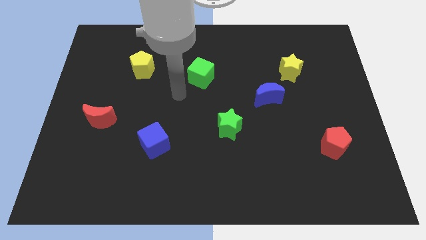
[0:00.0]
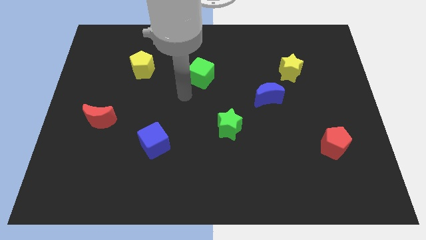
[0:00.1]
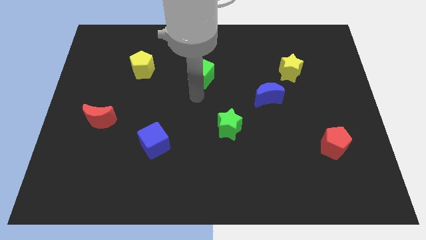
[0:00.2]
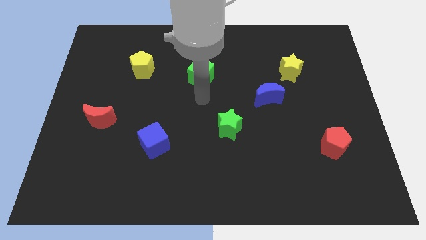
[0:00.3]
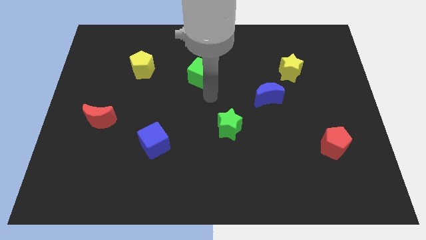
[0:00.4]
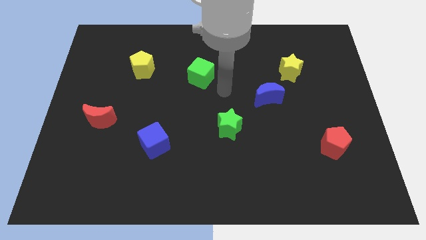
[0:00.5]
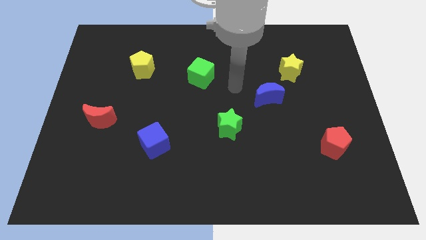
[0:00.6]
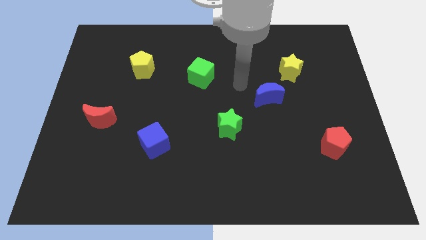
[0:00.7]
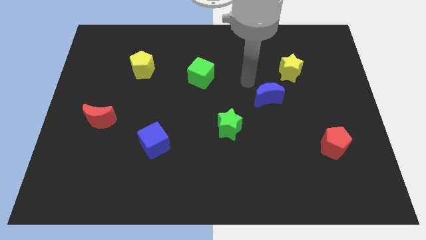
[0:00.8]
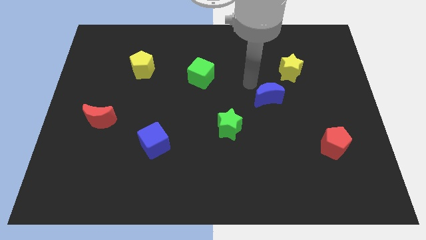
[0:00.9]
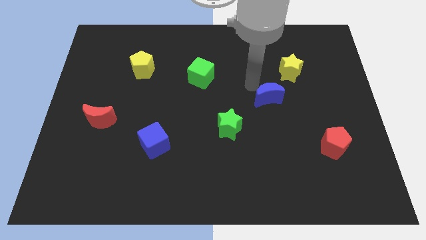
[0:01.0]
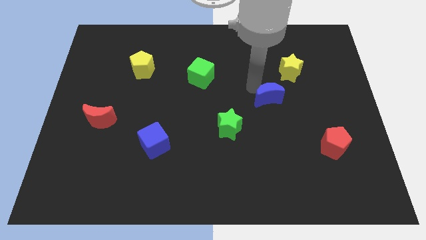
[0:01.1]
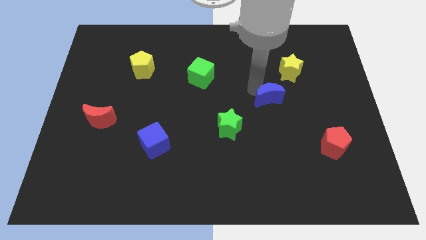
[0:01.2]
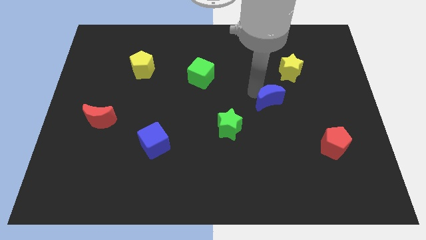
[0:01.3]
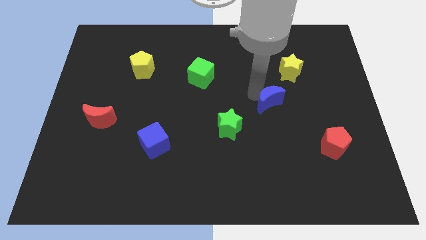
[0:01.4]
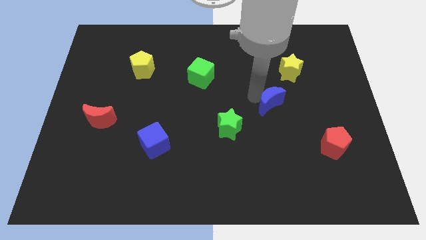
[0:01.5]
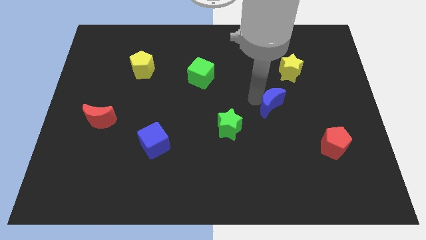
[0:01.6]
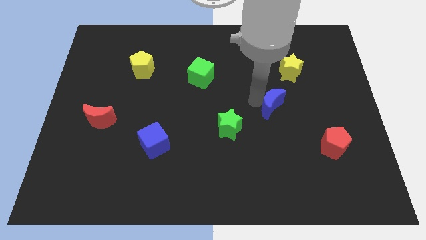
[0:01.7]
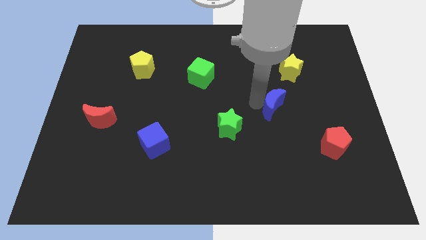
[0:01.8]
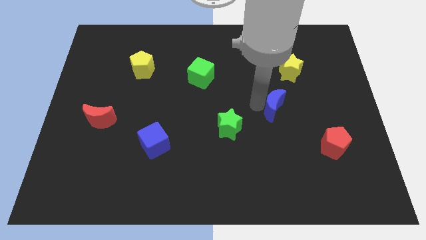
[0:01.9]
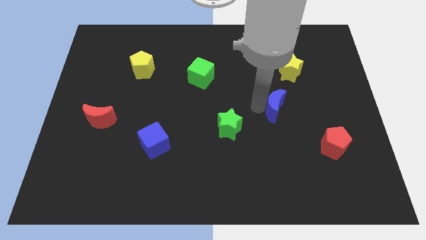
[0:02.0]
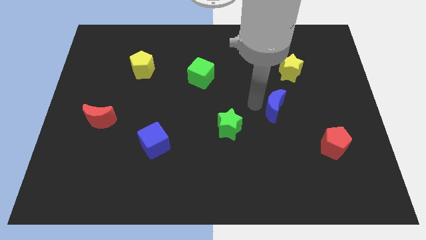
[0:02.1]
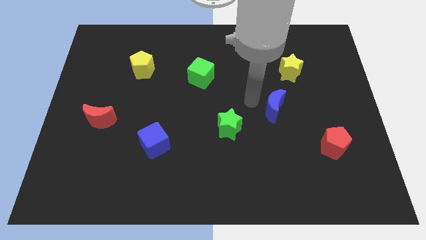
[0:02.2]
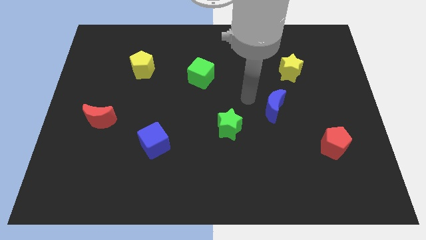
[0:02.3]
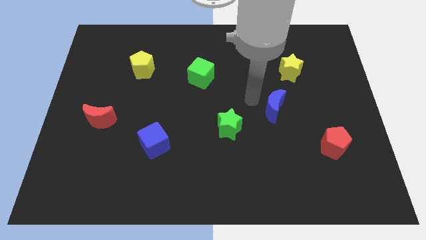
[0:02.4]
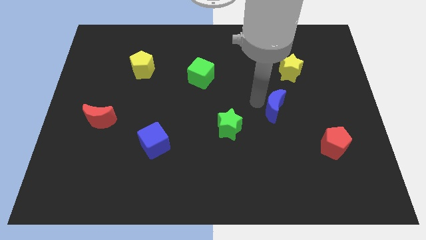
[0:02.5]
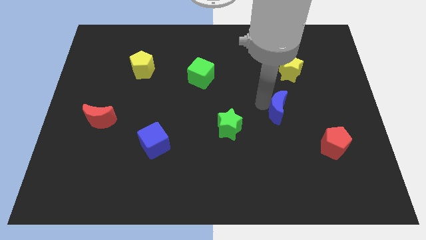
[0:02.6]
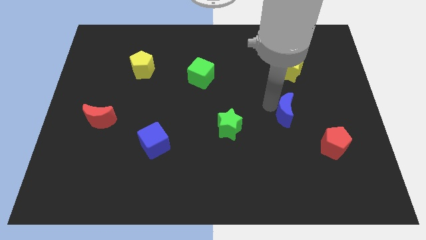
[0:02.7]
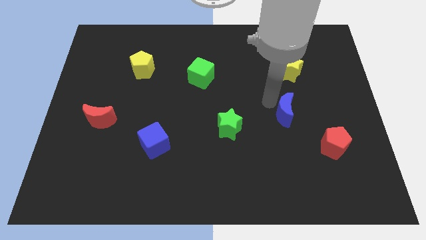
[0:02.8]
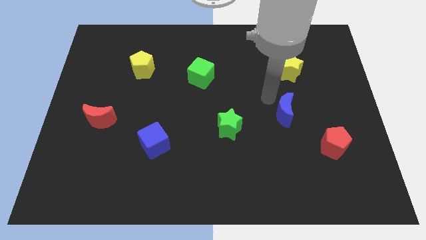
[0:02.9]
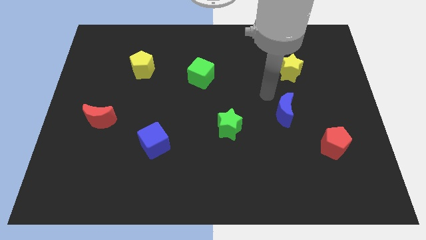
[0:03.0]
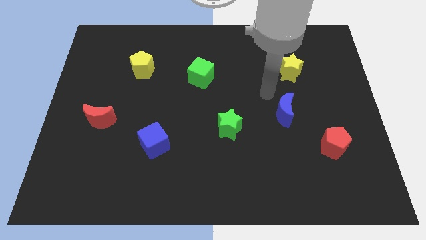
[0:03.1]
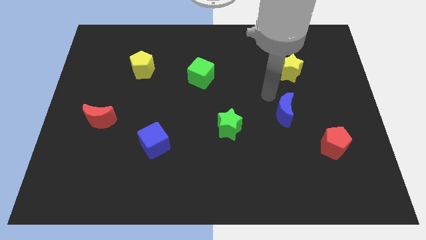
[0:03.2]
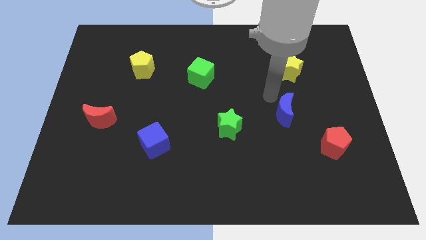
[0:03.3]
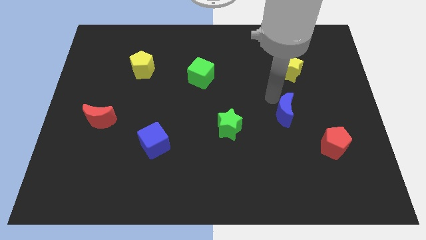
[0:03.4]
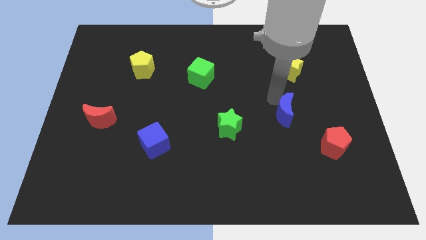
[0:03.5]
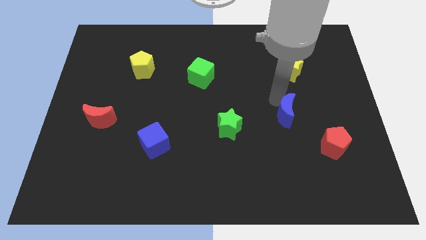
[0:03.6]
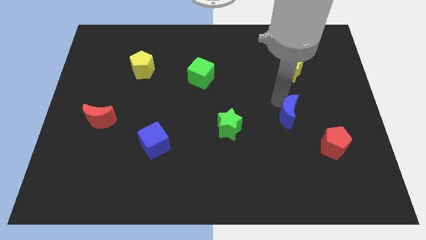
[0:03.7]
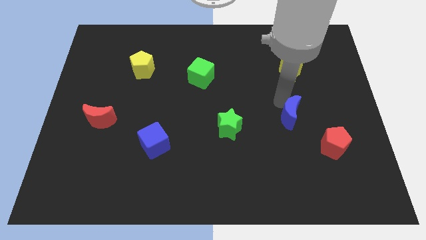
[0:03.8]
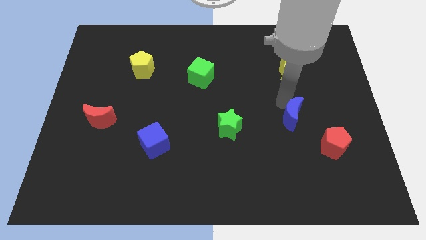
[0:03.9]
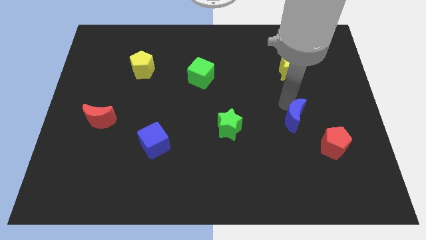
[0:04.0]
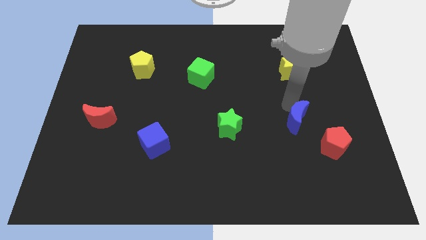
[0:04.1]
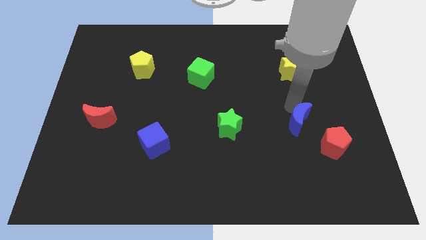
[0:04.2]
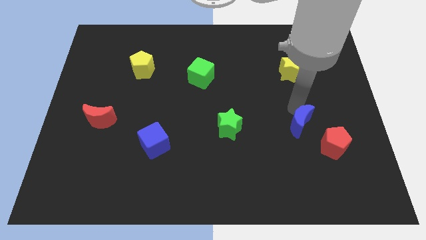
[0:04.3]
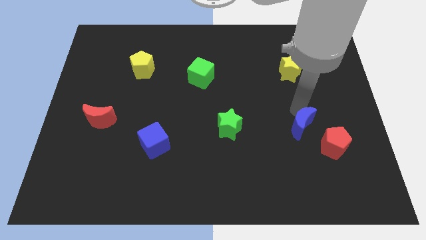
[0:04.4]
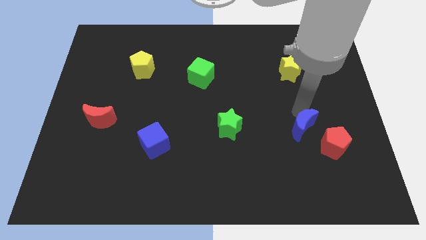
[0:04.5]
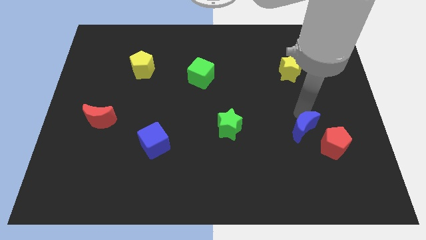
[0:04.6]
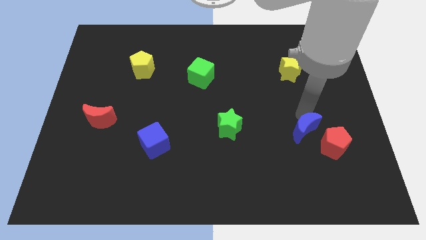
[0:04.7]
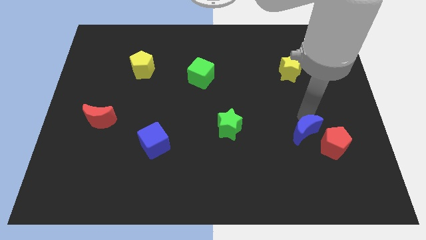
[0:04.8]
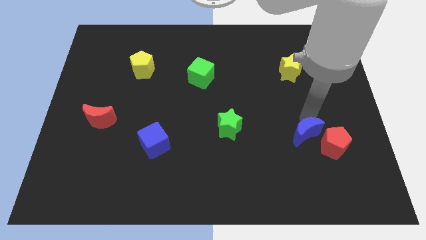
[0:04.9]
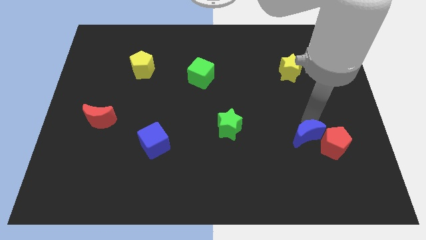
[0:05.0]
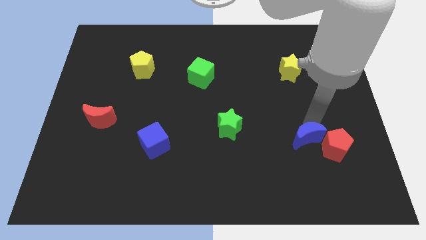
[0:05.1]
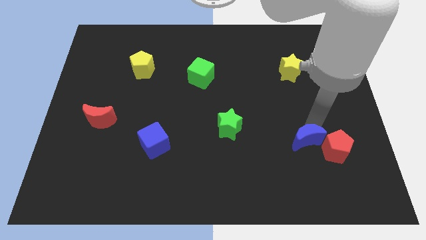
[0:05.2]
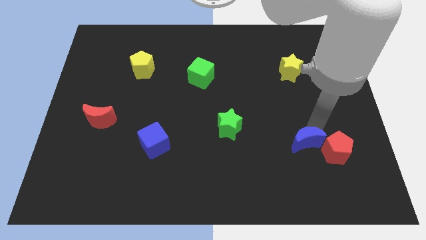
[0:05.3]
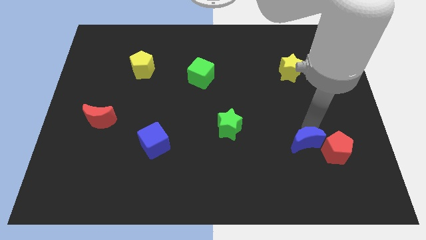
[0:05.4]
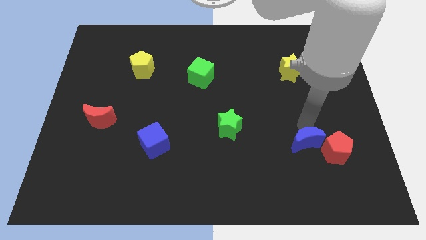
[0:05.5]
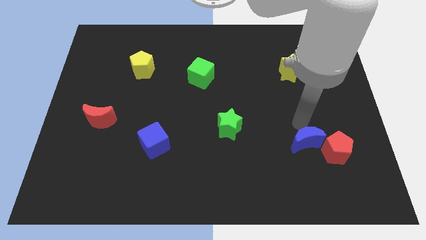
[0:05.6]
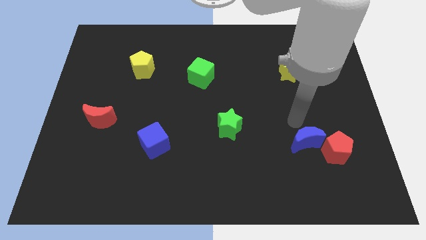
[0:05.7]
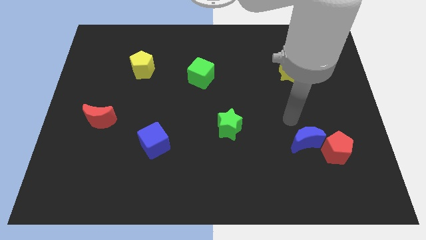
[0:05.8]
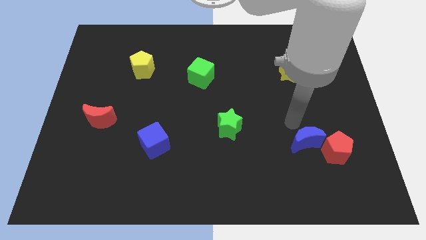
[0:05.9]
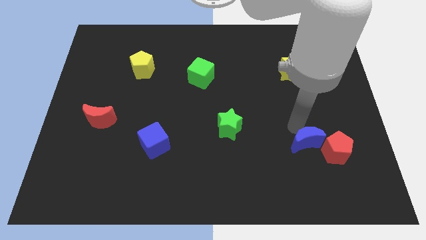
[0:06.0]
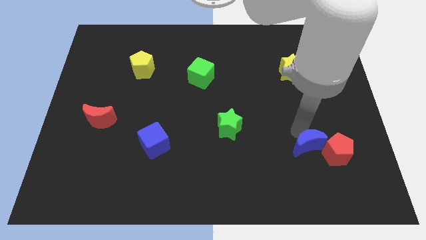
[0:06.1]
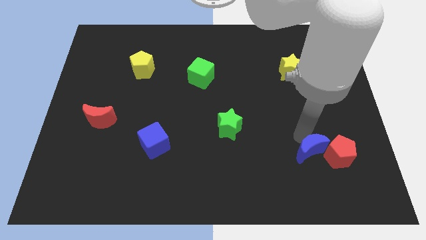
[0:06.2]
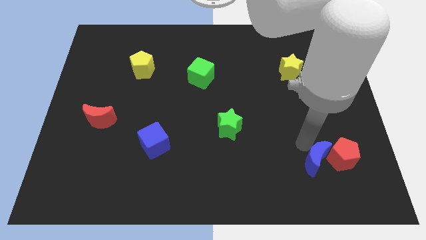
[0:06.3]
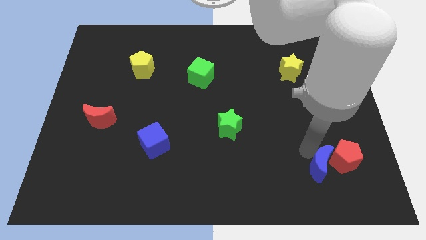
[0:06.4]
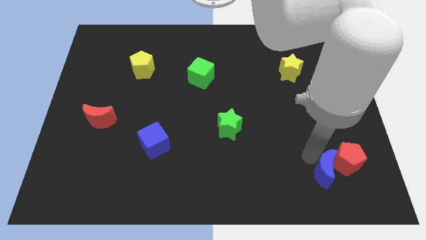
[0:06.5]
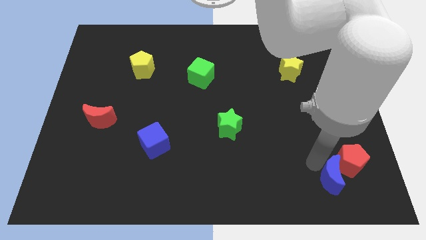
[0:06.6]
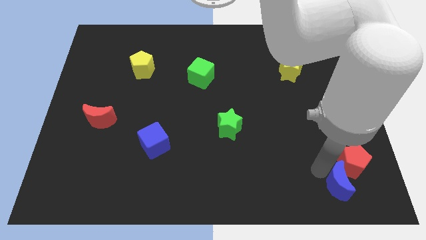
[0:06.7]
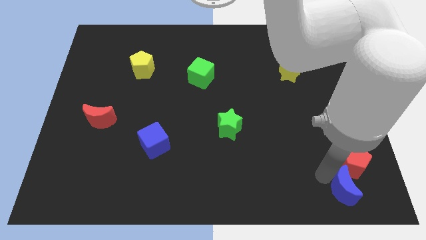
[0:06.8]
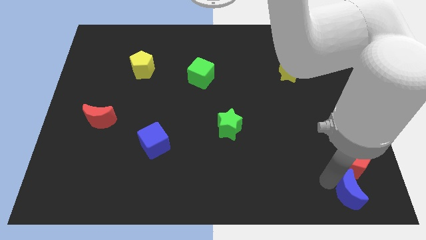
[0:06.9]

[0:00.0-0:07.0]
slide the blue moon to the bottom right
